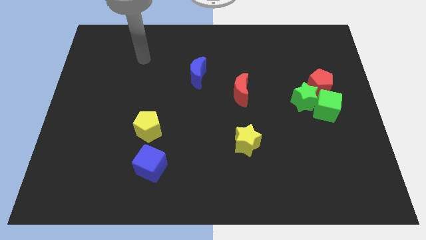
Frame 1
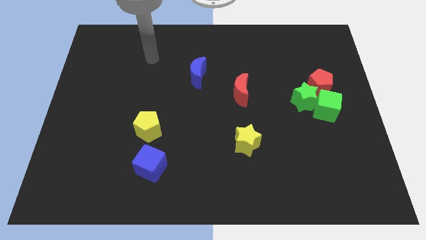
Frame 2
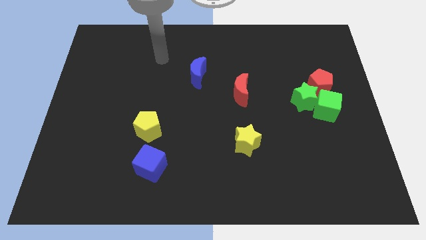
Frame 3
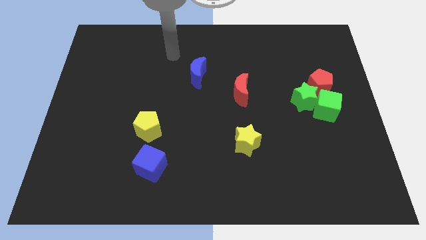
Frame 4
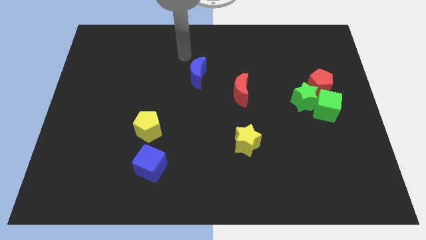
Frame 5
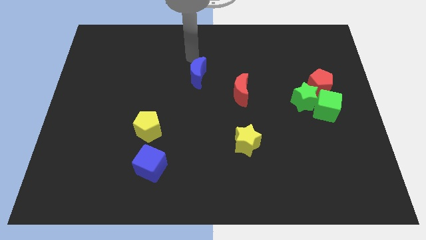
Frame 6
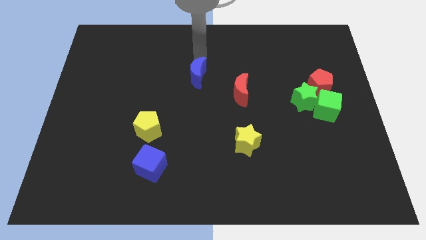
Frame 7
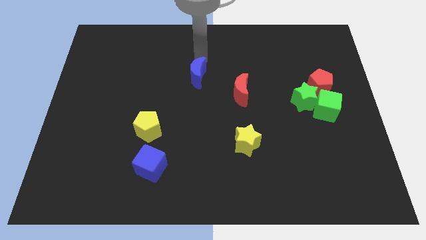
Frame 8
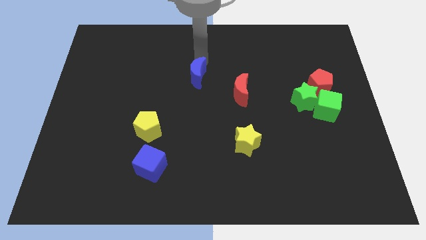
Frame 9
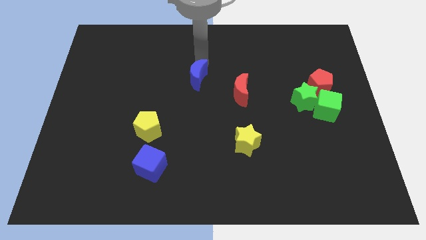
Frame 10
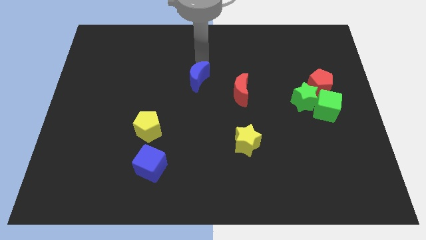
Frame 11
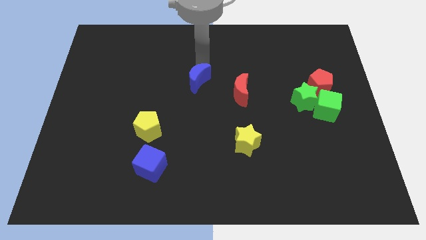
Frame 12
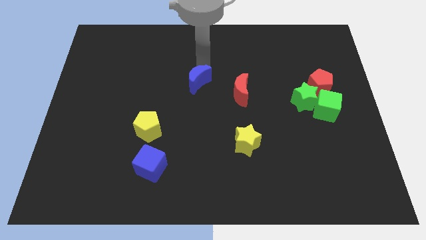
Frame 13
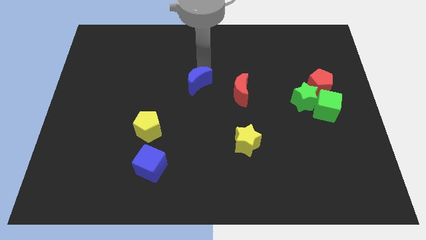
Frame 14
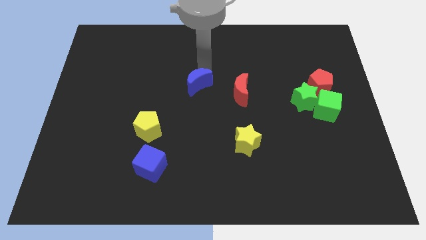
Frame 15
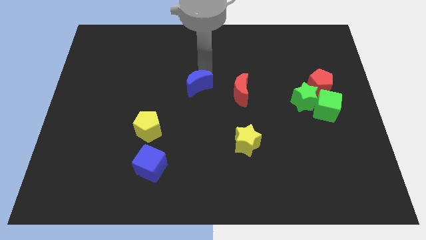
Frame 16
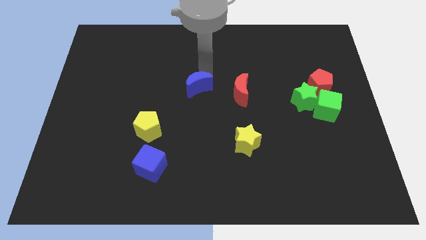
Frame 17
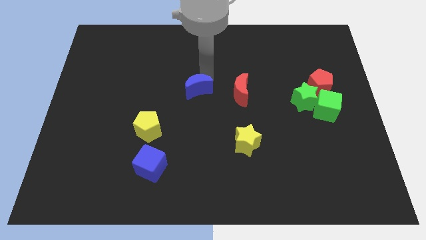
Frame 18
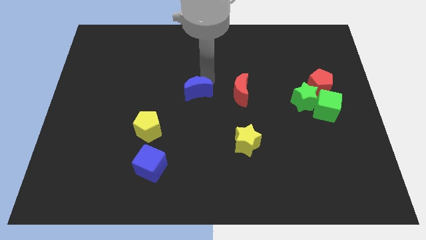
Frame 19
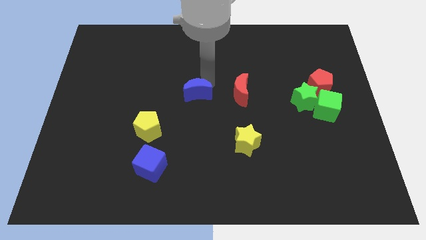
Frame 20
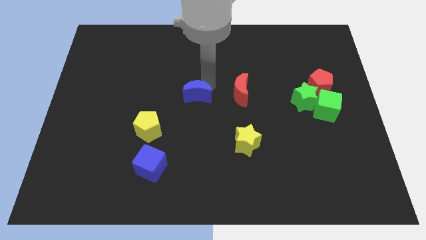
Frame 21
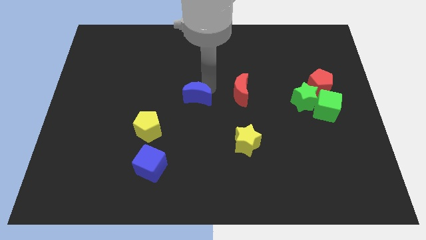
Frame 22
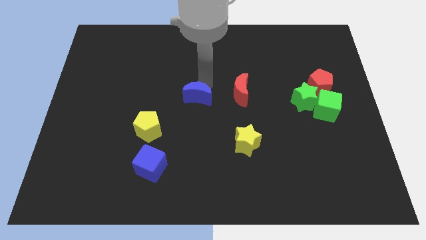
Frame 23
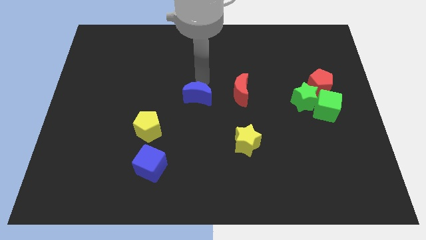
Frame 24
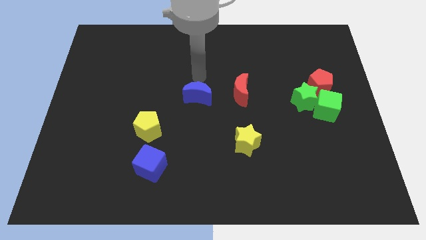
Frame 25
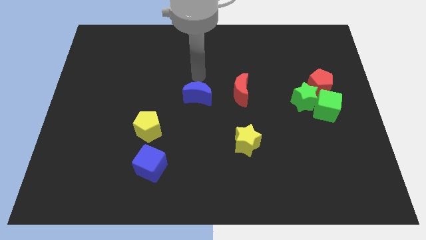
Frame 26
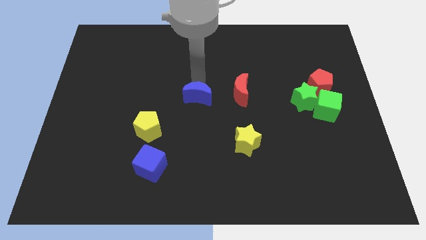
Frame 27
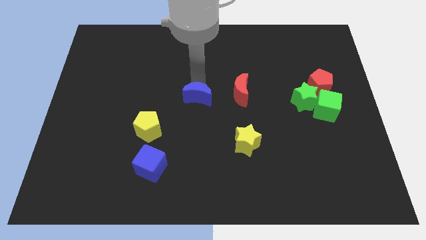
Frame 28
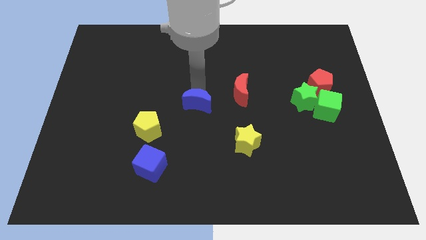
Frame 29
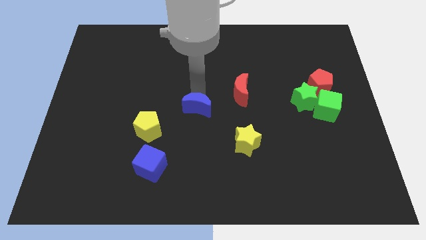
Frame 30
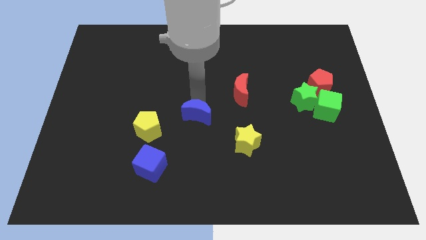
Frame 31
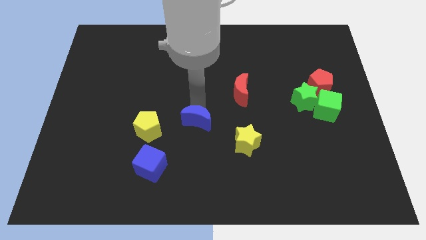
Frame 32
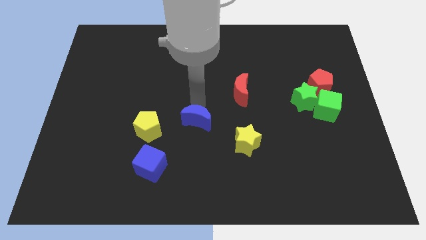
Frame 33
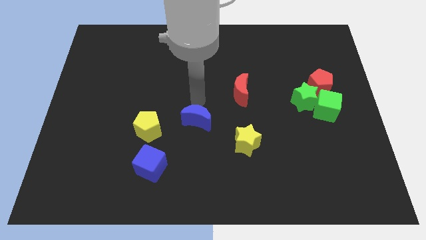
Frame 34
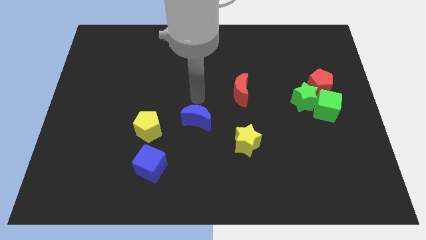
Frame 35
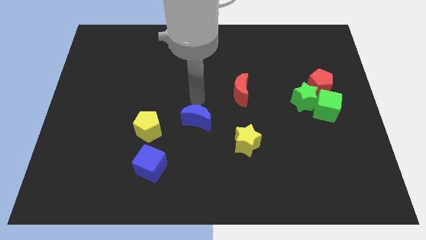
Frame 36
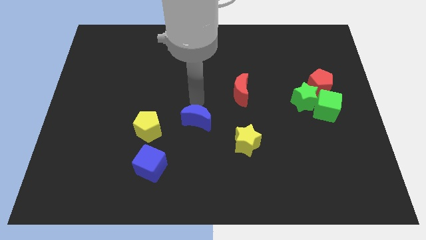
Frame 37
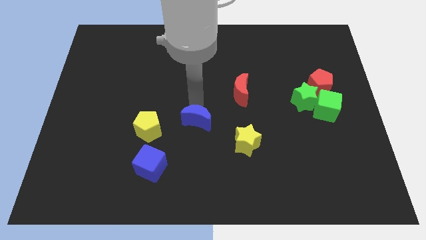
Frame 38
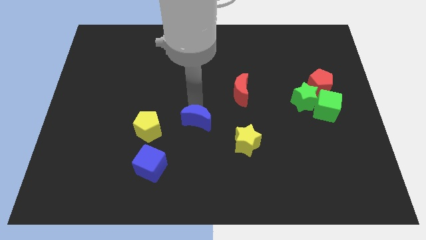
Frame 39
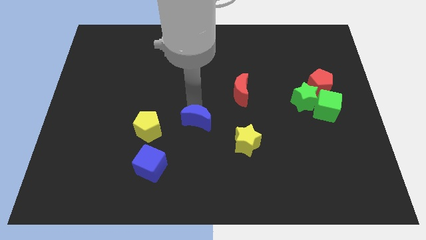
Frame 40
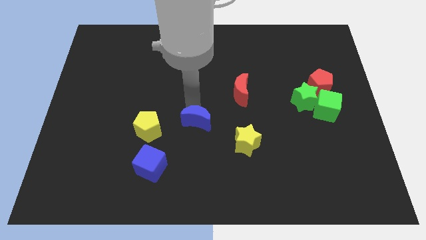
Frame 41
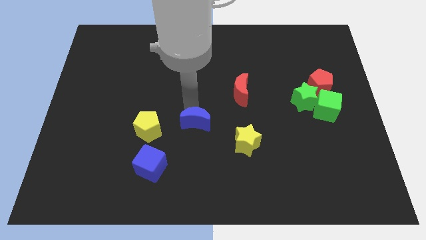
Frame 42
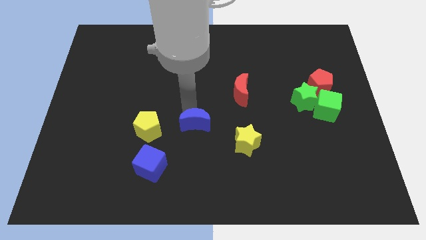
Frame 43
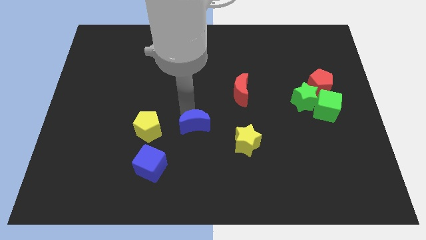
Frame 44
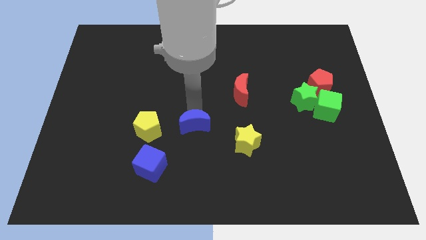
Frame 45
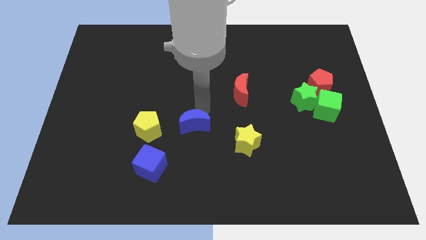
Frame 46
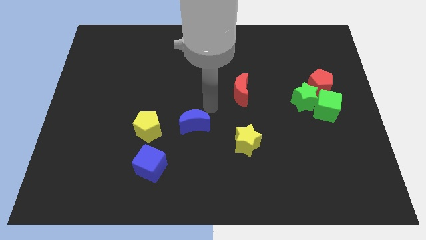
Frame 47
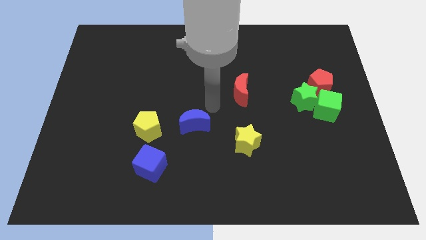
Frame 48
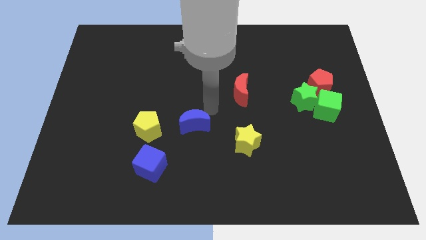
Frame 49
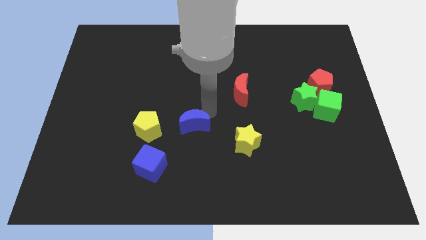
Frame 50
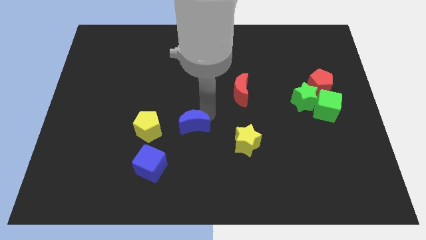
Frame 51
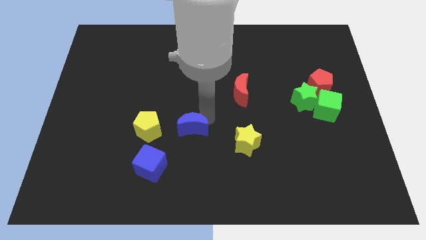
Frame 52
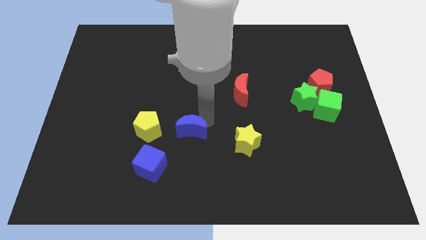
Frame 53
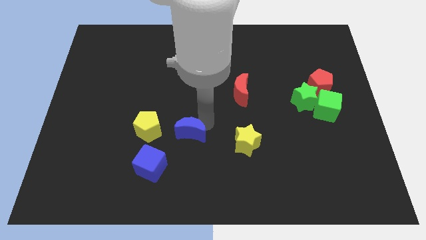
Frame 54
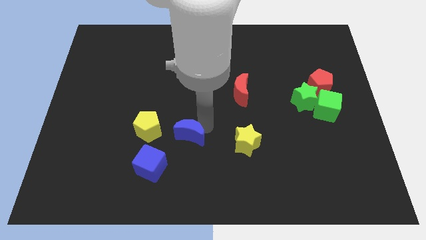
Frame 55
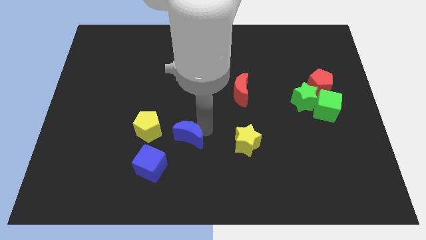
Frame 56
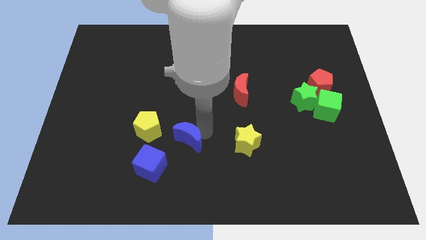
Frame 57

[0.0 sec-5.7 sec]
move the blue moon diagonally down and to the right of the yellow pentagon

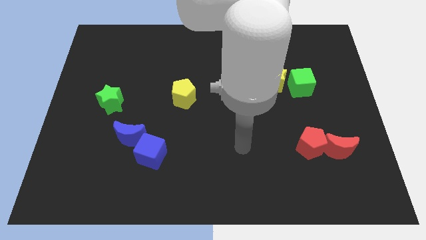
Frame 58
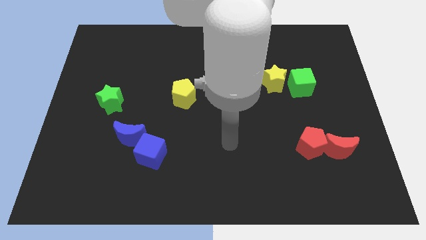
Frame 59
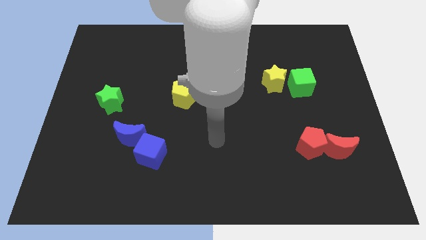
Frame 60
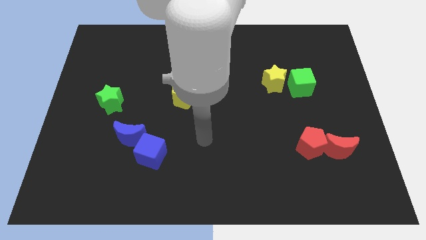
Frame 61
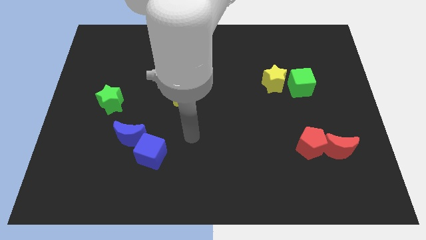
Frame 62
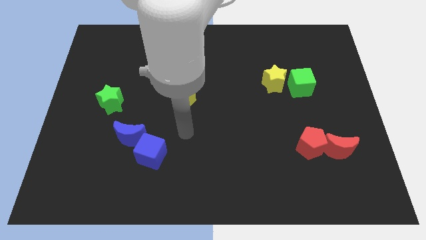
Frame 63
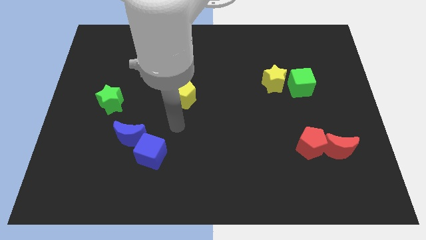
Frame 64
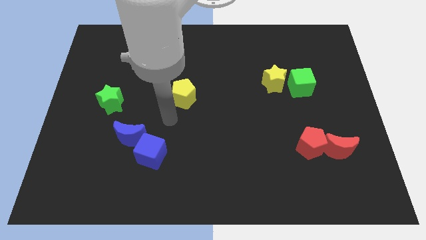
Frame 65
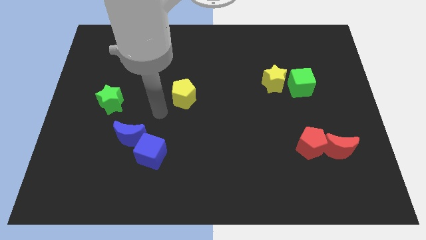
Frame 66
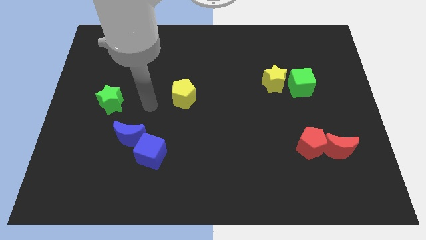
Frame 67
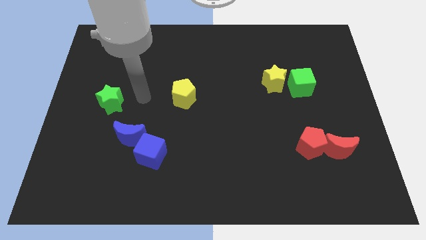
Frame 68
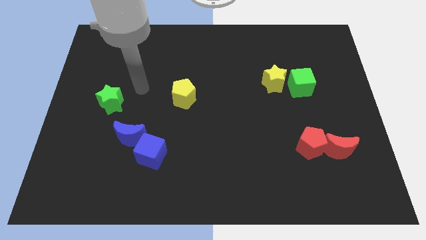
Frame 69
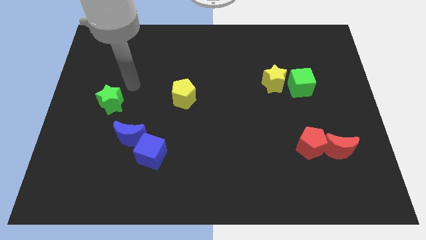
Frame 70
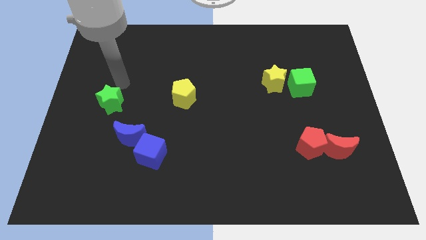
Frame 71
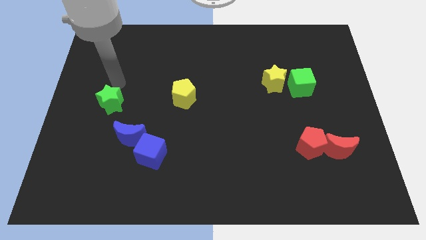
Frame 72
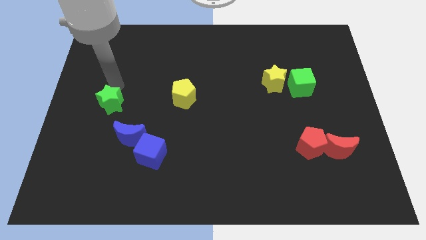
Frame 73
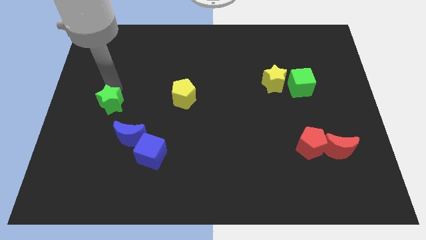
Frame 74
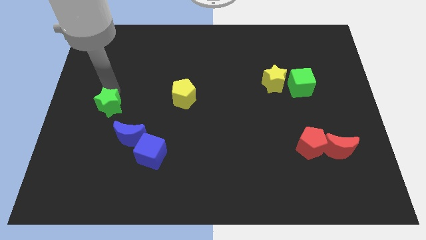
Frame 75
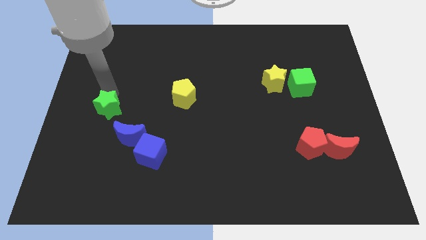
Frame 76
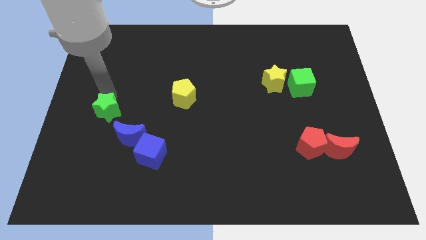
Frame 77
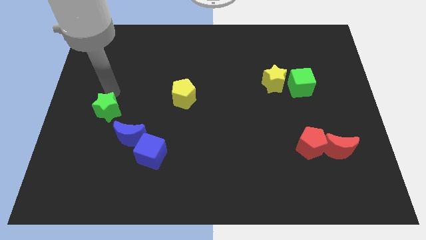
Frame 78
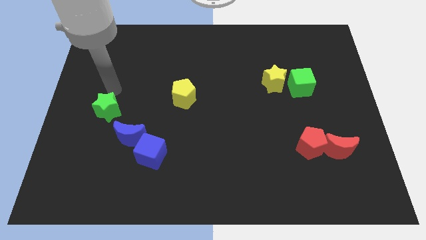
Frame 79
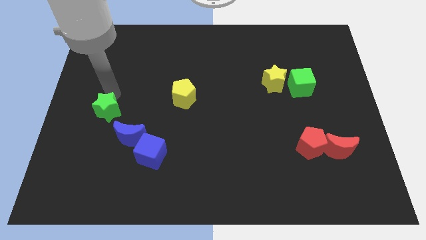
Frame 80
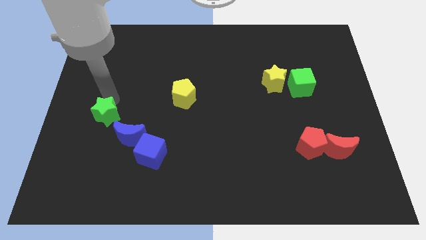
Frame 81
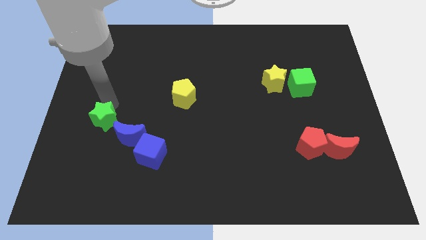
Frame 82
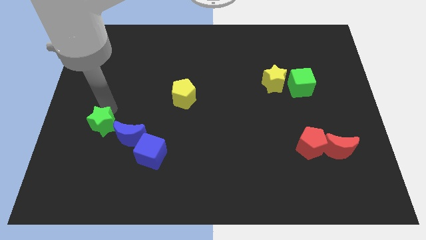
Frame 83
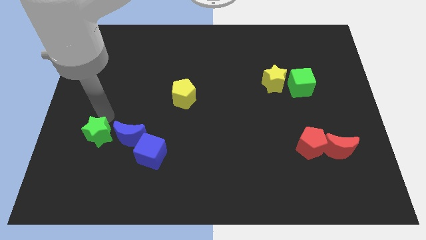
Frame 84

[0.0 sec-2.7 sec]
put the green star left of the blue cube

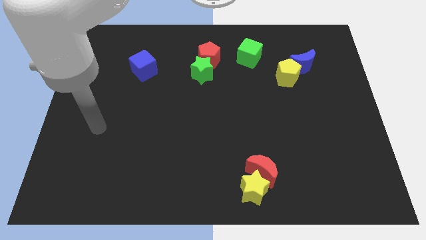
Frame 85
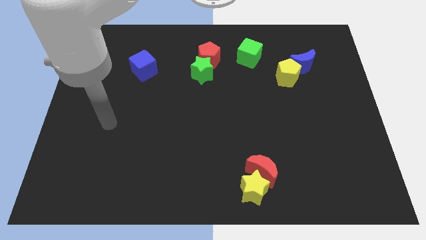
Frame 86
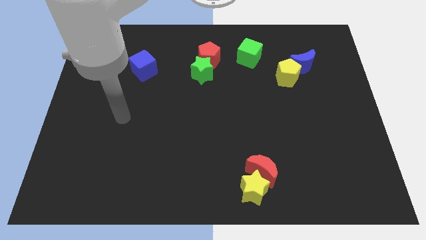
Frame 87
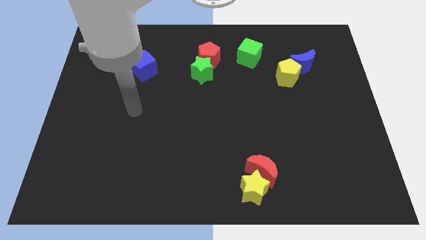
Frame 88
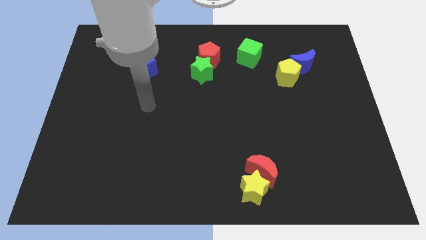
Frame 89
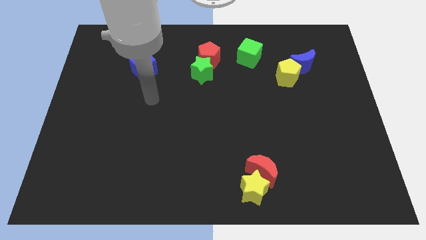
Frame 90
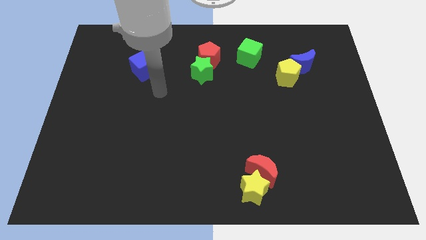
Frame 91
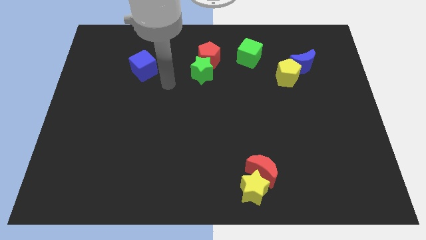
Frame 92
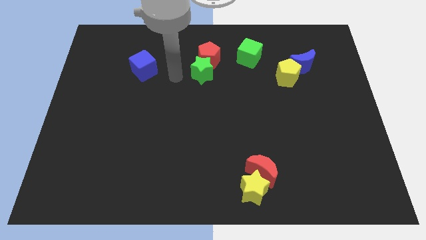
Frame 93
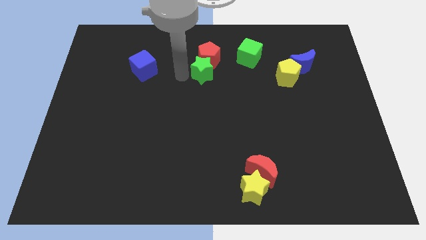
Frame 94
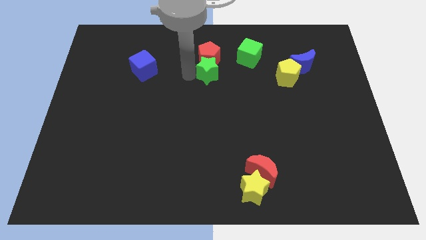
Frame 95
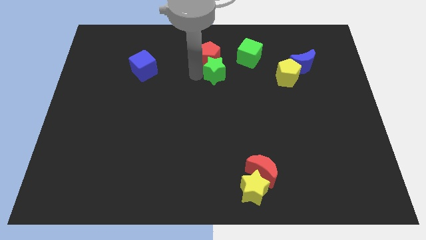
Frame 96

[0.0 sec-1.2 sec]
move the green star diagonally down and to the left of the green cube
